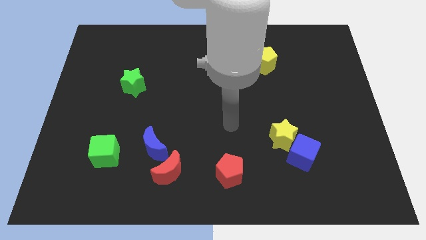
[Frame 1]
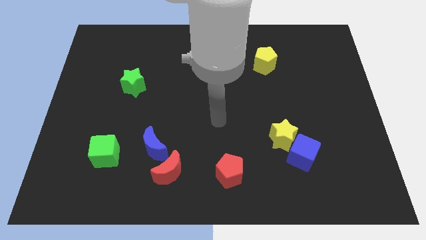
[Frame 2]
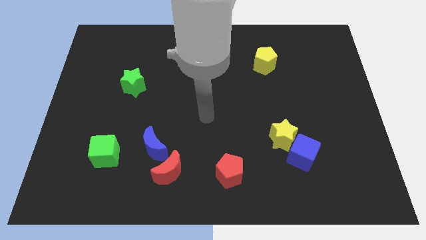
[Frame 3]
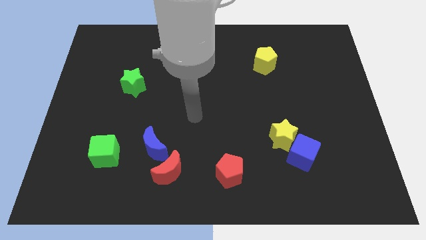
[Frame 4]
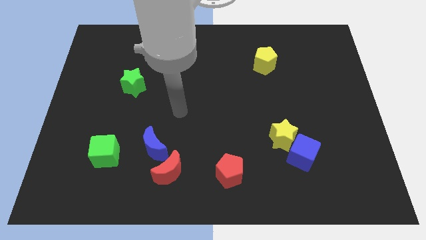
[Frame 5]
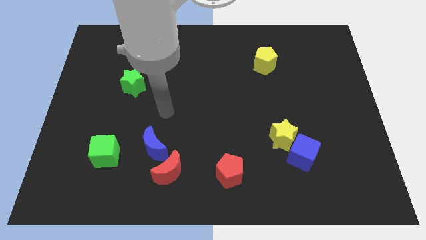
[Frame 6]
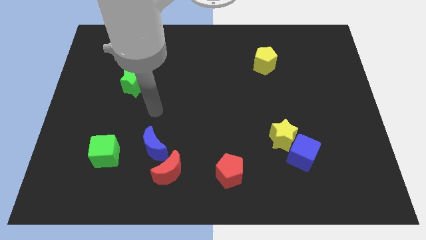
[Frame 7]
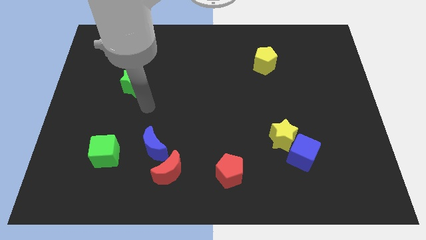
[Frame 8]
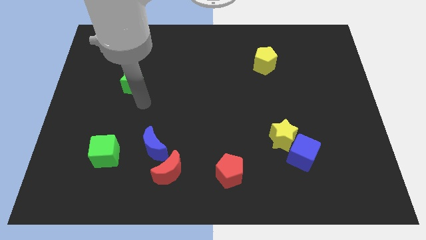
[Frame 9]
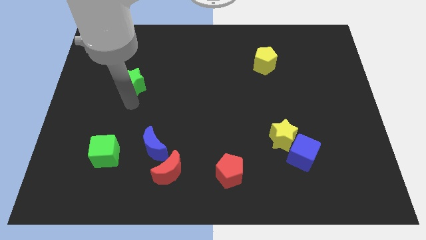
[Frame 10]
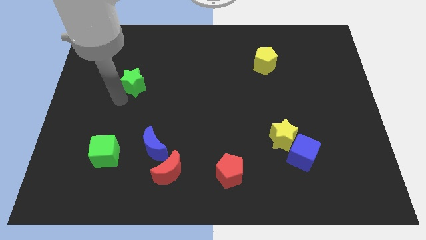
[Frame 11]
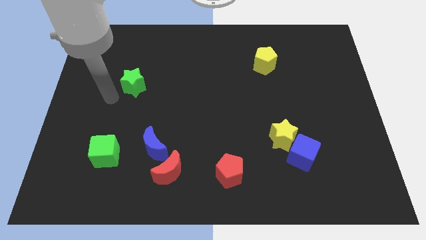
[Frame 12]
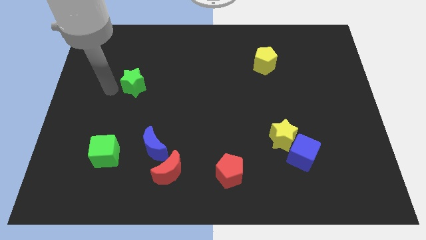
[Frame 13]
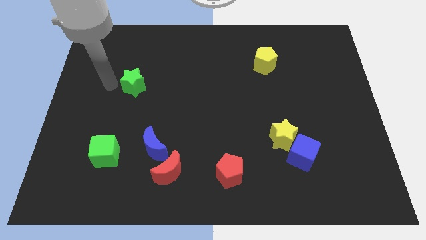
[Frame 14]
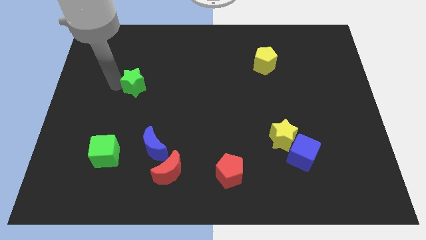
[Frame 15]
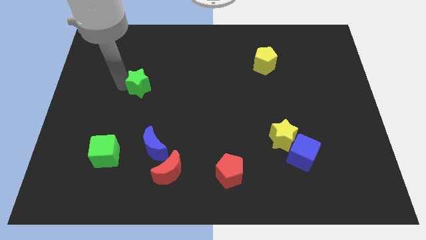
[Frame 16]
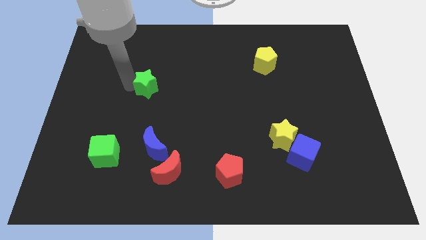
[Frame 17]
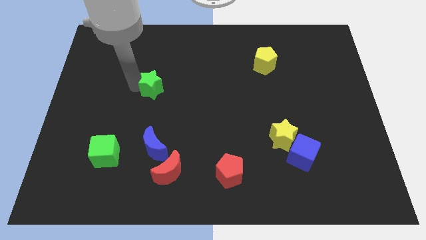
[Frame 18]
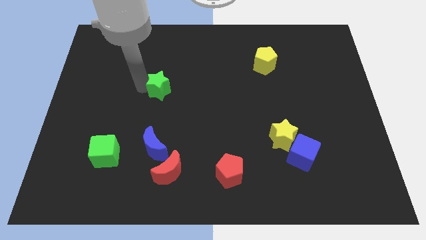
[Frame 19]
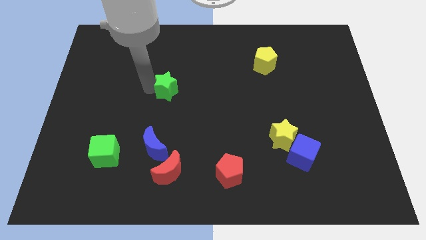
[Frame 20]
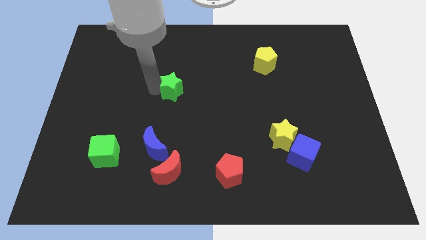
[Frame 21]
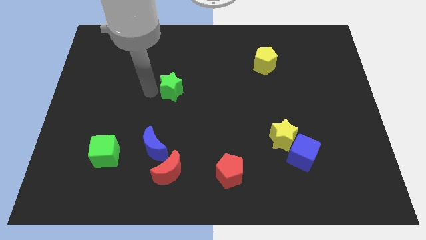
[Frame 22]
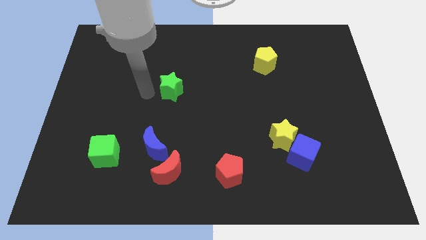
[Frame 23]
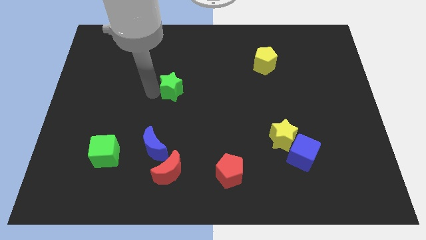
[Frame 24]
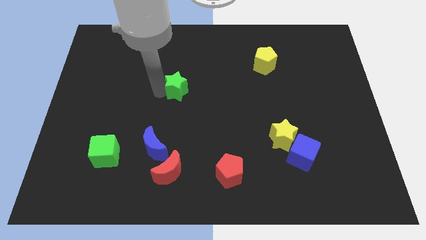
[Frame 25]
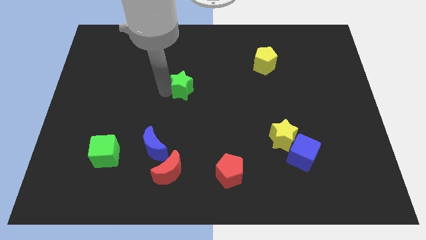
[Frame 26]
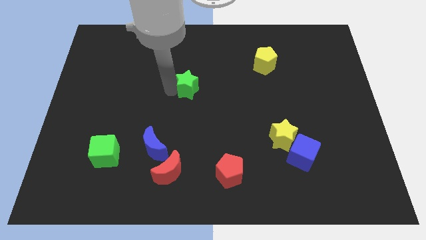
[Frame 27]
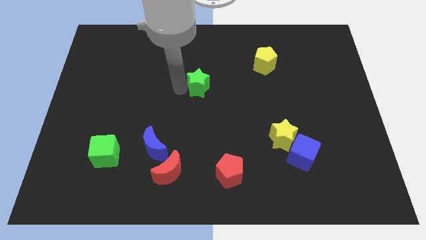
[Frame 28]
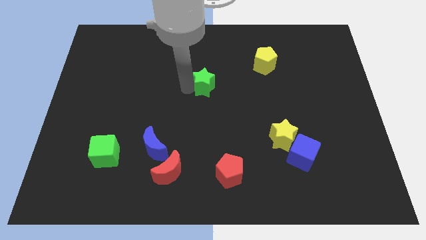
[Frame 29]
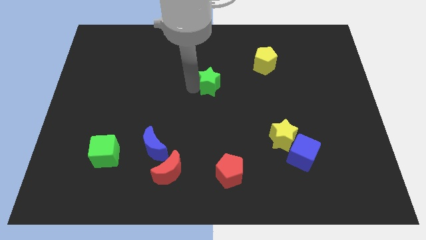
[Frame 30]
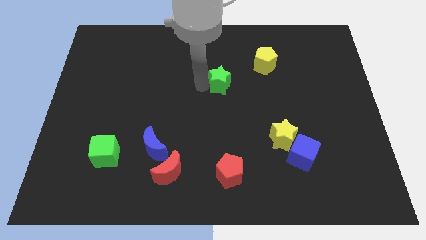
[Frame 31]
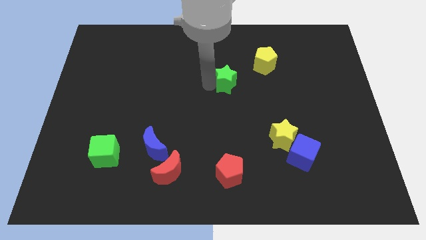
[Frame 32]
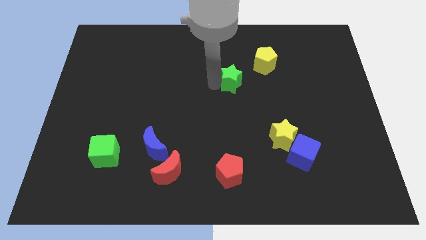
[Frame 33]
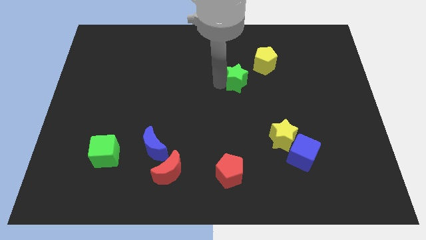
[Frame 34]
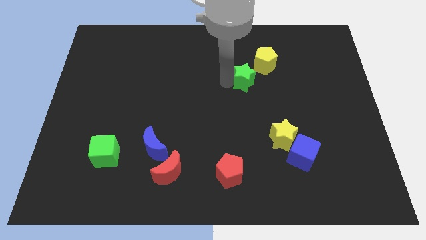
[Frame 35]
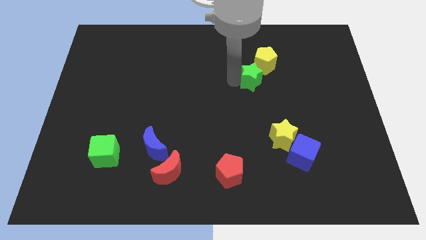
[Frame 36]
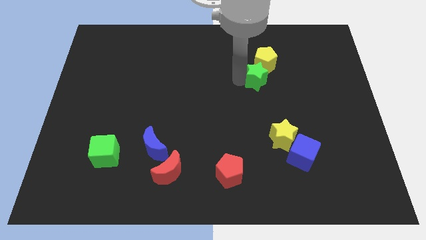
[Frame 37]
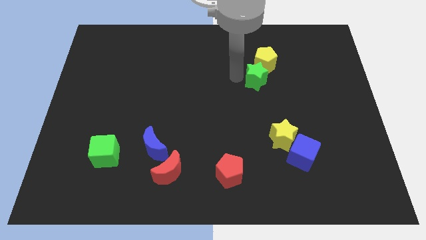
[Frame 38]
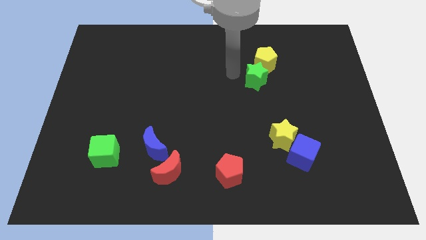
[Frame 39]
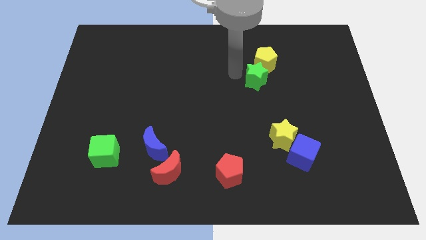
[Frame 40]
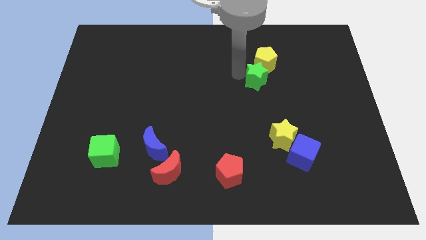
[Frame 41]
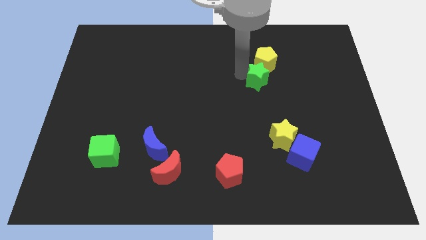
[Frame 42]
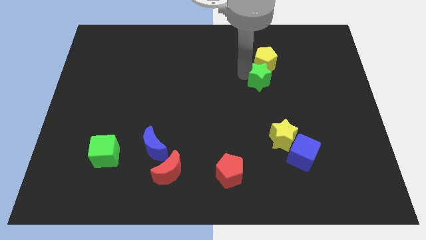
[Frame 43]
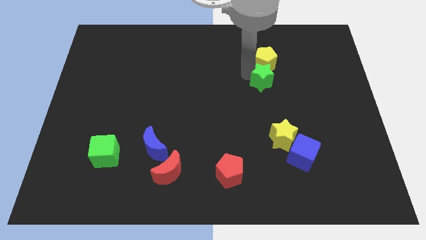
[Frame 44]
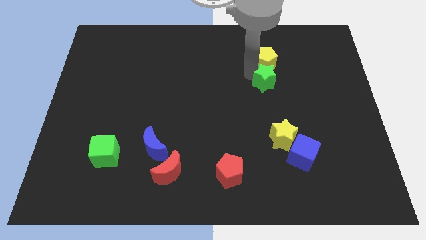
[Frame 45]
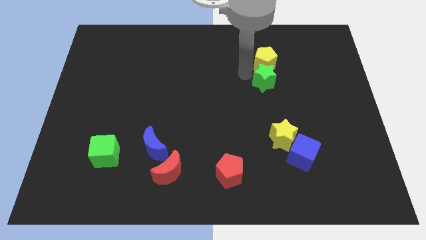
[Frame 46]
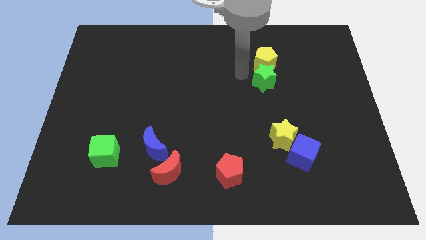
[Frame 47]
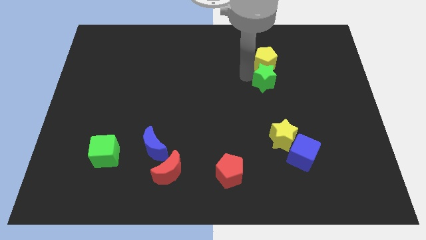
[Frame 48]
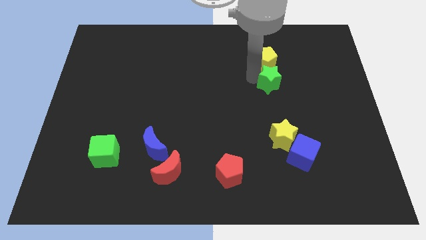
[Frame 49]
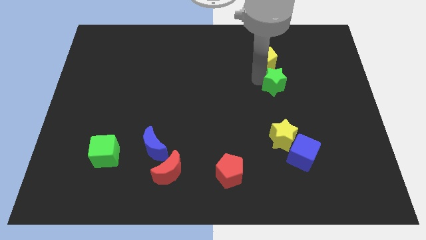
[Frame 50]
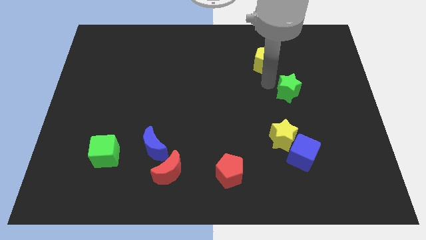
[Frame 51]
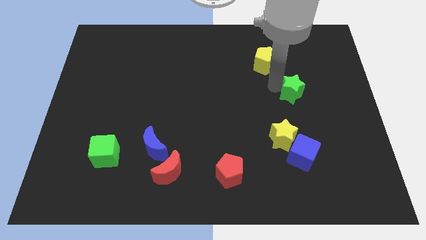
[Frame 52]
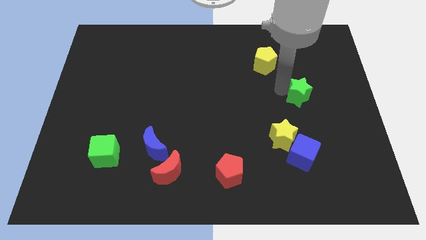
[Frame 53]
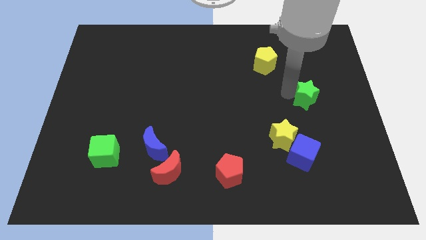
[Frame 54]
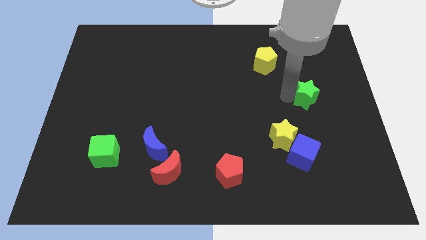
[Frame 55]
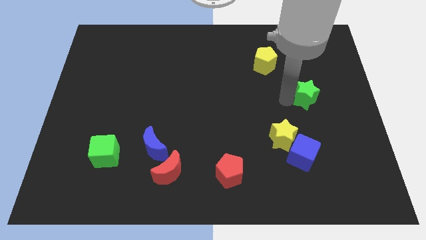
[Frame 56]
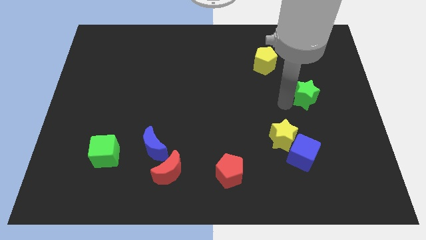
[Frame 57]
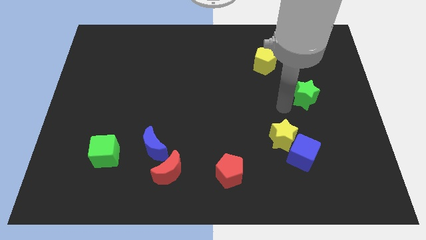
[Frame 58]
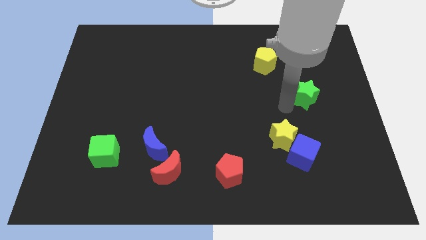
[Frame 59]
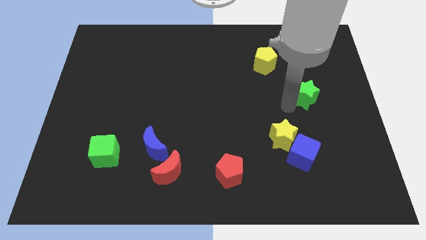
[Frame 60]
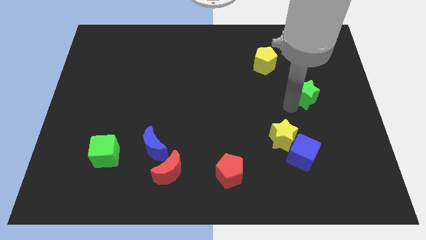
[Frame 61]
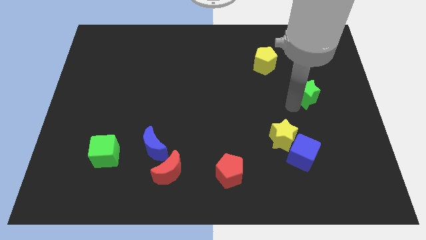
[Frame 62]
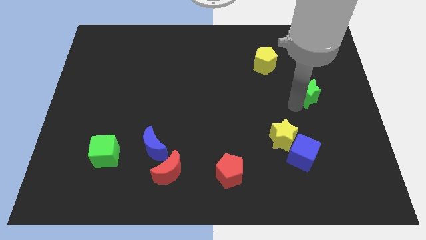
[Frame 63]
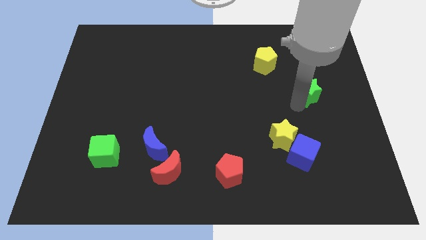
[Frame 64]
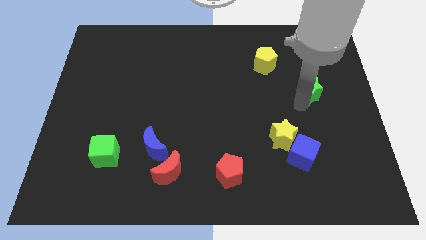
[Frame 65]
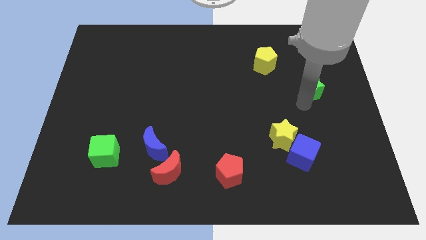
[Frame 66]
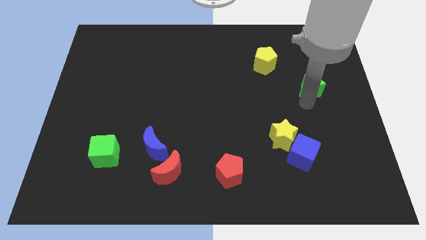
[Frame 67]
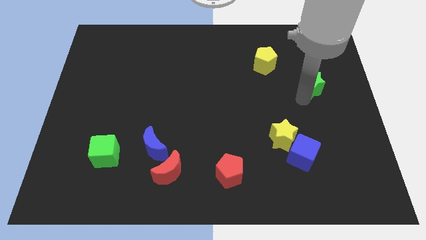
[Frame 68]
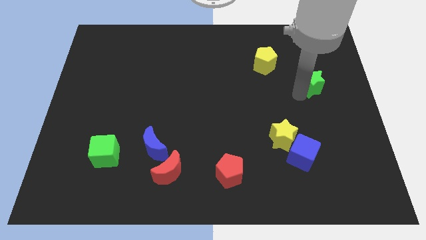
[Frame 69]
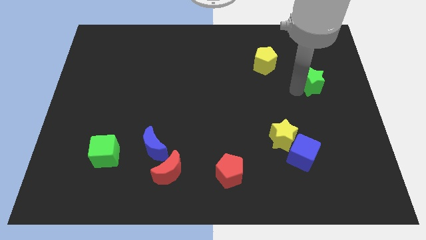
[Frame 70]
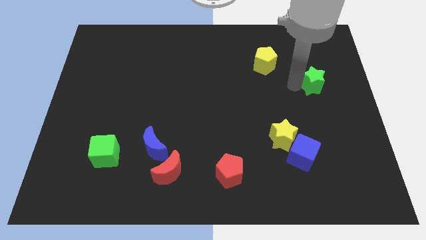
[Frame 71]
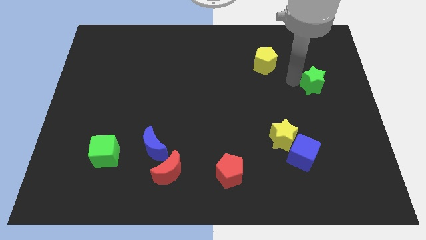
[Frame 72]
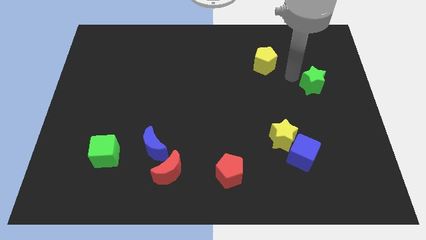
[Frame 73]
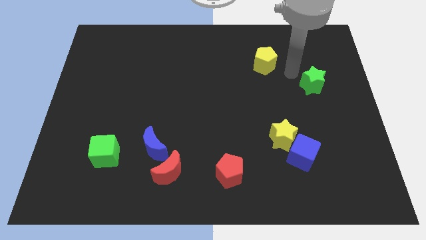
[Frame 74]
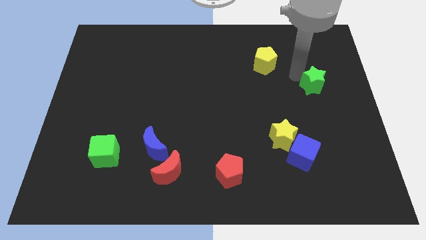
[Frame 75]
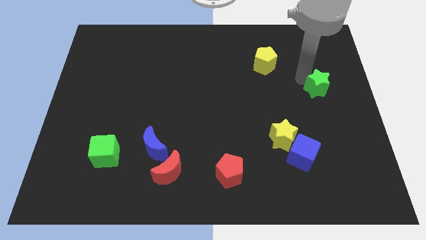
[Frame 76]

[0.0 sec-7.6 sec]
put the green star to the right side
